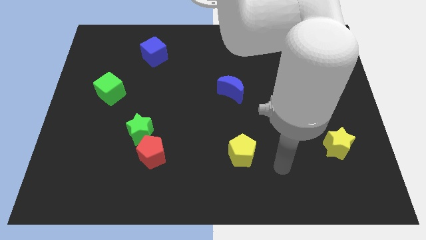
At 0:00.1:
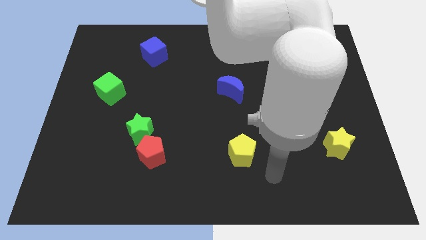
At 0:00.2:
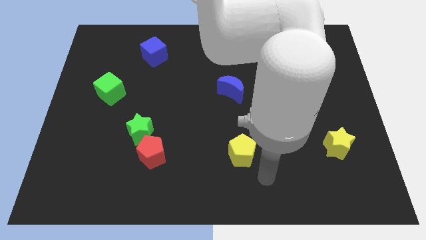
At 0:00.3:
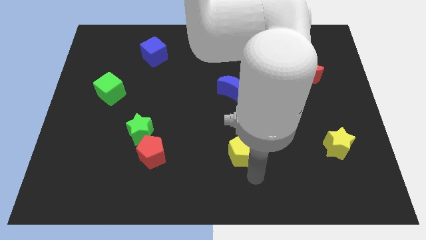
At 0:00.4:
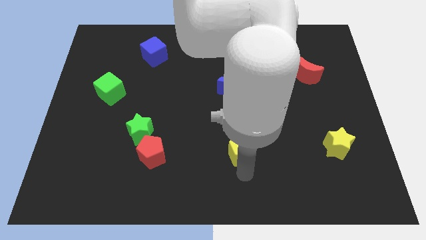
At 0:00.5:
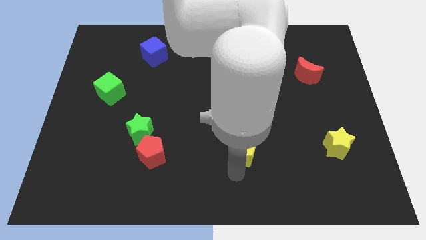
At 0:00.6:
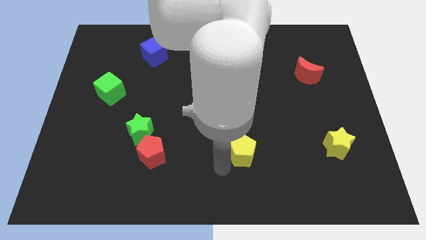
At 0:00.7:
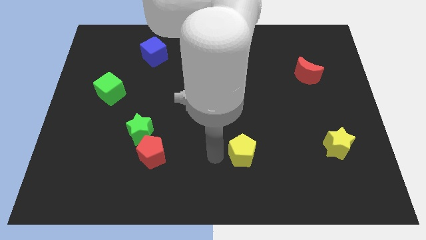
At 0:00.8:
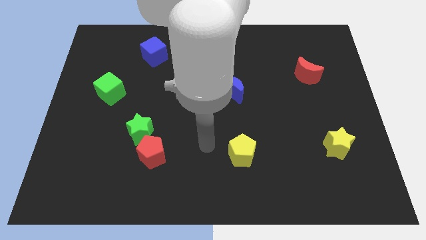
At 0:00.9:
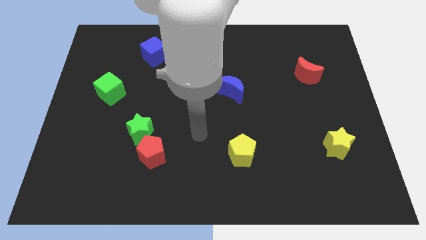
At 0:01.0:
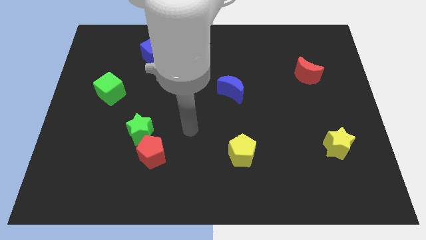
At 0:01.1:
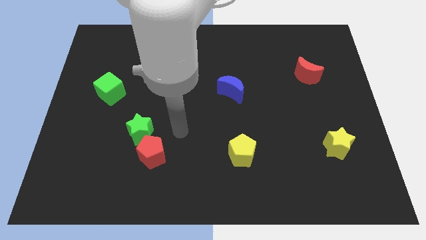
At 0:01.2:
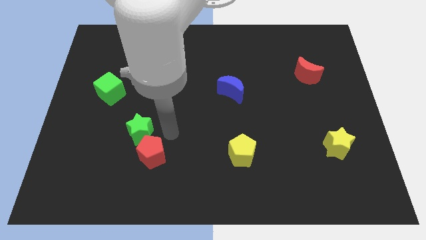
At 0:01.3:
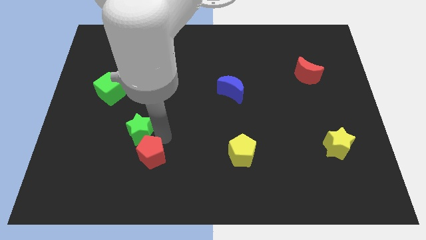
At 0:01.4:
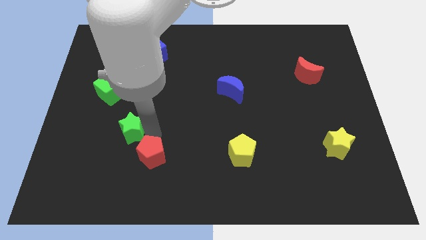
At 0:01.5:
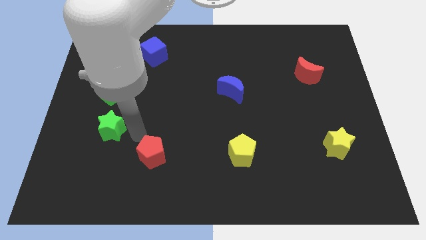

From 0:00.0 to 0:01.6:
separate the red pentagon from the green star

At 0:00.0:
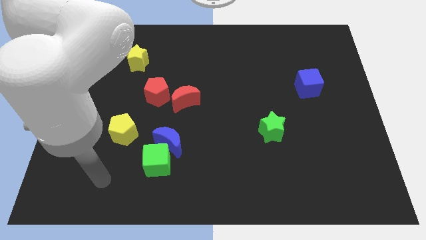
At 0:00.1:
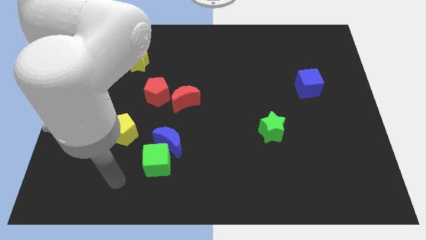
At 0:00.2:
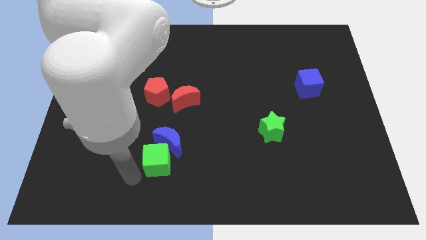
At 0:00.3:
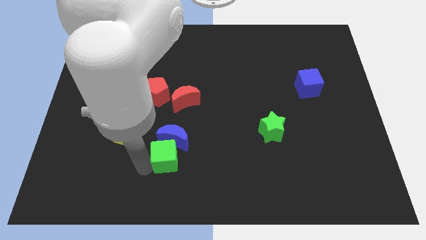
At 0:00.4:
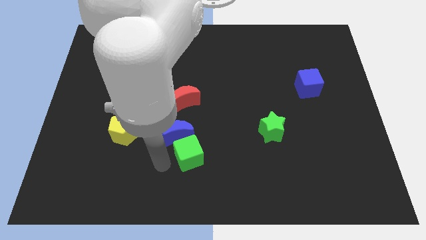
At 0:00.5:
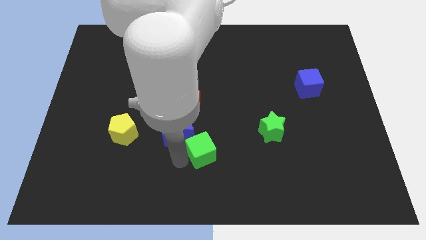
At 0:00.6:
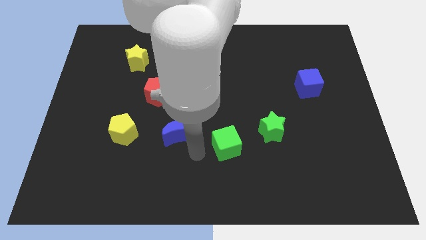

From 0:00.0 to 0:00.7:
pull the blue moon apart from the green cube

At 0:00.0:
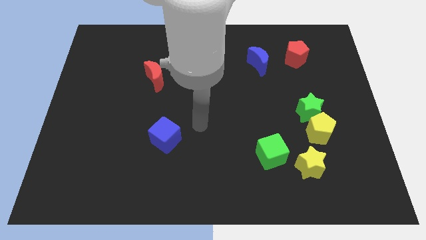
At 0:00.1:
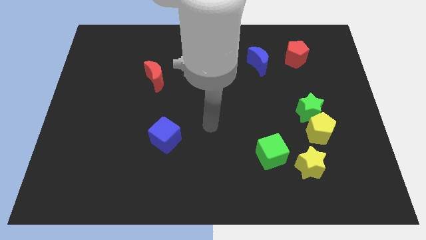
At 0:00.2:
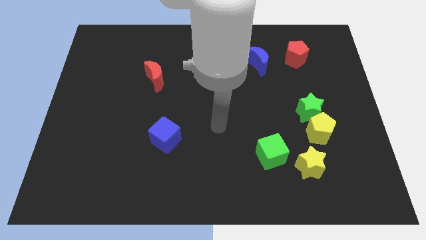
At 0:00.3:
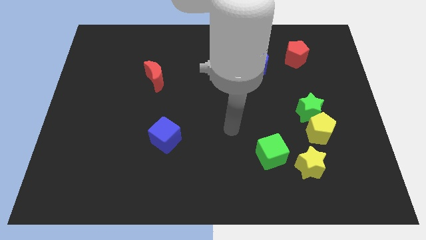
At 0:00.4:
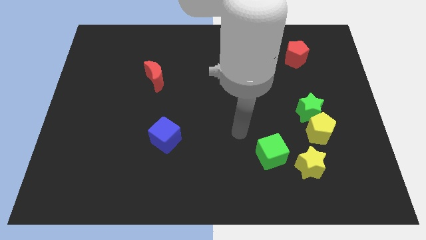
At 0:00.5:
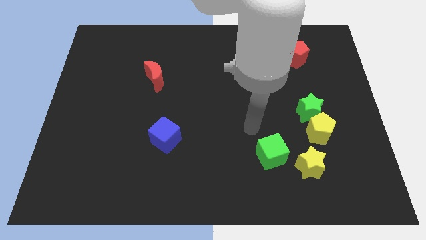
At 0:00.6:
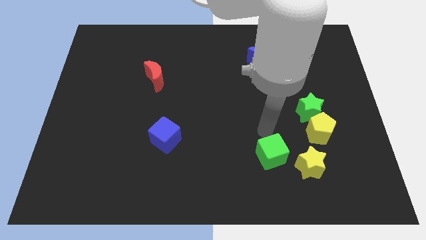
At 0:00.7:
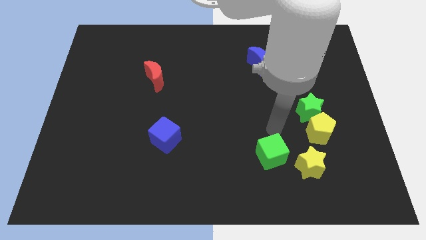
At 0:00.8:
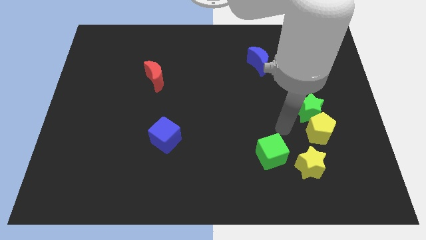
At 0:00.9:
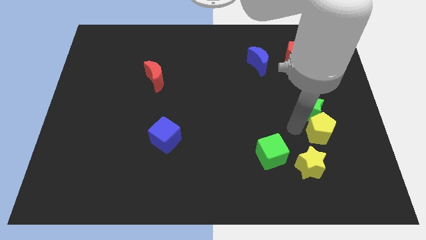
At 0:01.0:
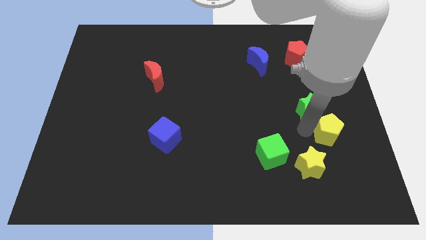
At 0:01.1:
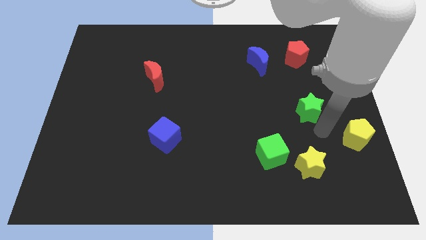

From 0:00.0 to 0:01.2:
move the green star away from the yellow pentagon

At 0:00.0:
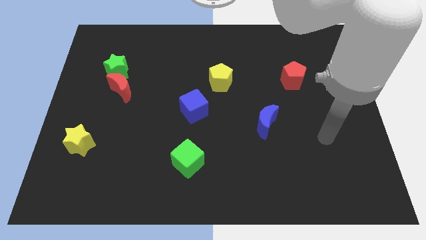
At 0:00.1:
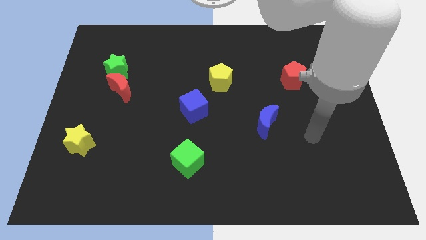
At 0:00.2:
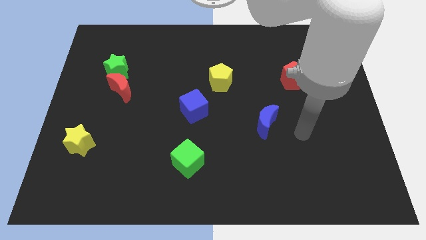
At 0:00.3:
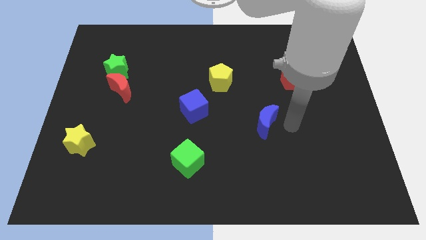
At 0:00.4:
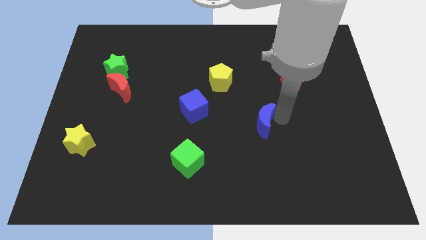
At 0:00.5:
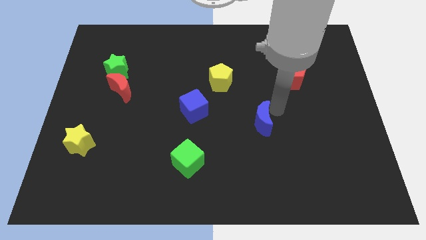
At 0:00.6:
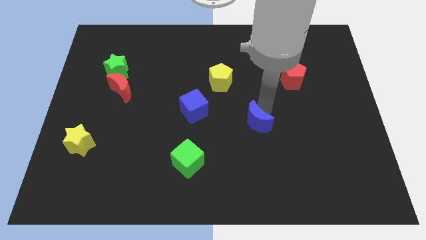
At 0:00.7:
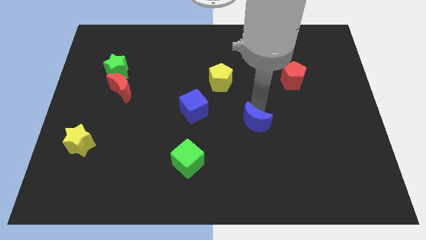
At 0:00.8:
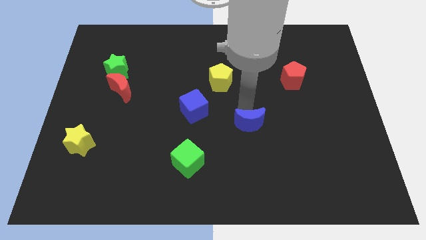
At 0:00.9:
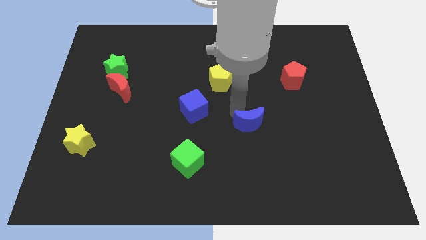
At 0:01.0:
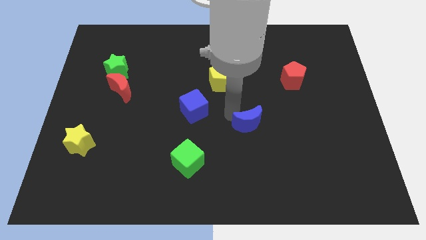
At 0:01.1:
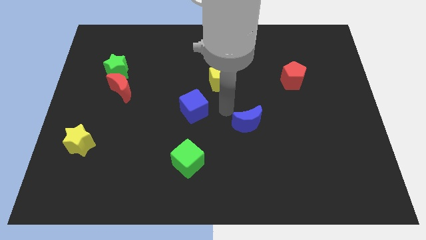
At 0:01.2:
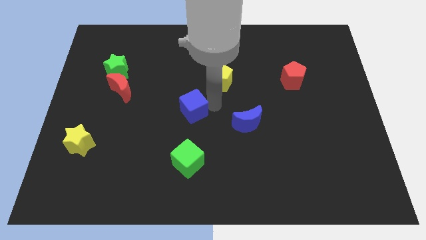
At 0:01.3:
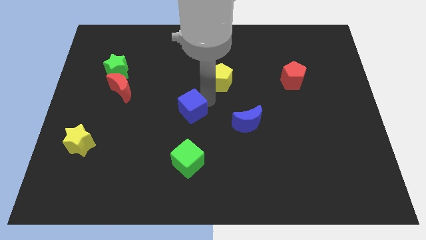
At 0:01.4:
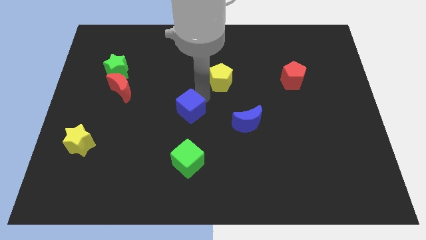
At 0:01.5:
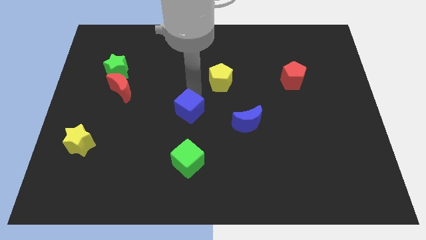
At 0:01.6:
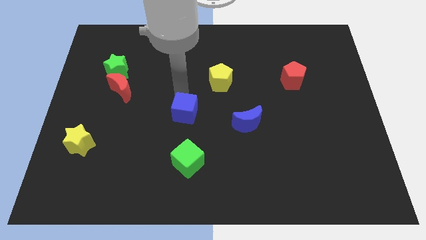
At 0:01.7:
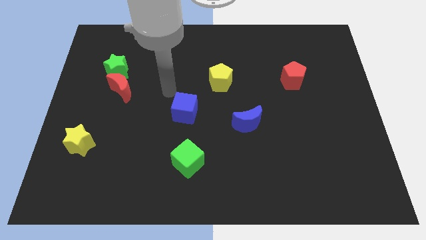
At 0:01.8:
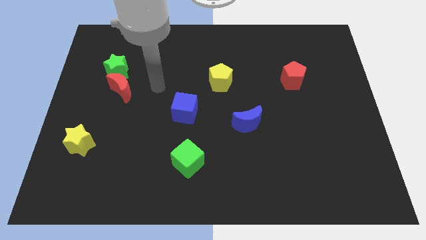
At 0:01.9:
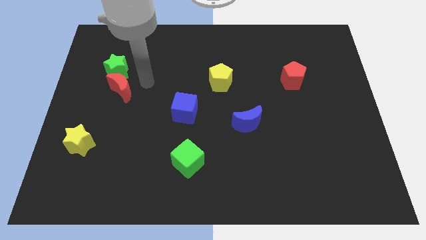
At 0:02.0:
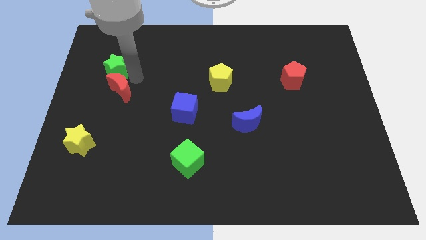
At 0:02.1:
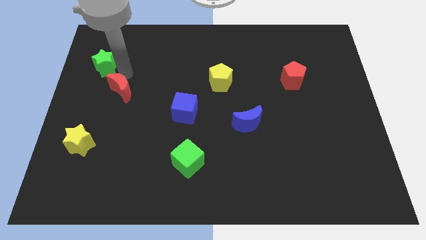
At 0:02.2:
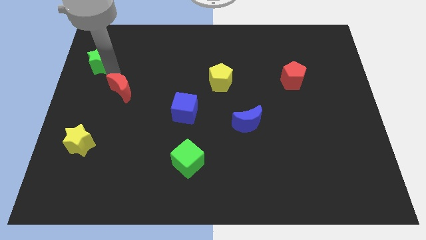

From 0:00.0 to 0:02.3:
move the red moon away from the green star

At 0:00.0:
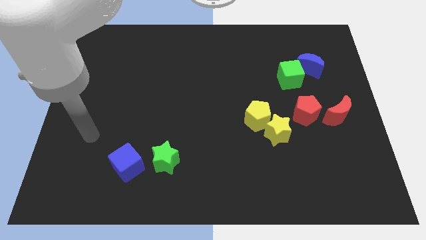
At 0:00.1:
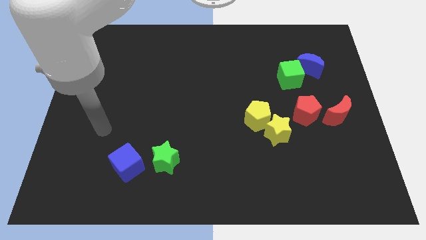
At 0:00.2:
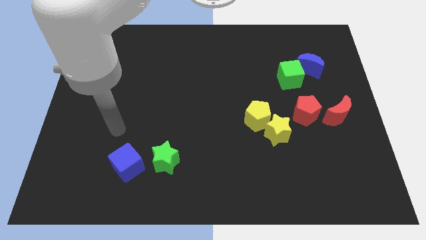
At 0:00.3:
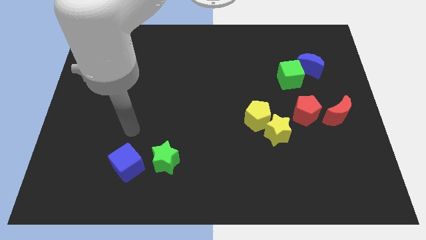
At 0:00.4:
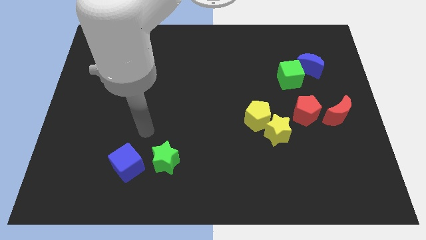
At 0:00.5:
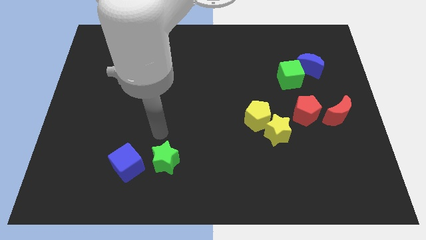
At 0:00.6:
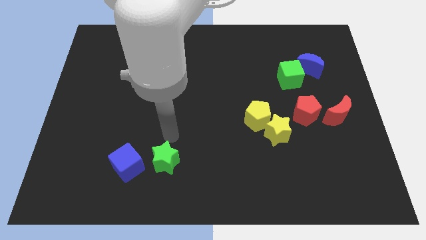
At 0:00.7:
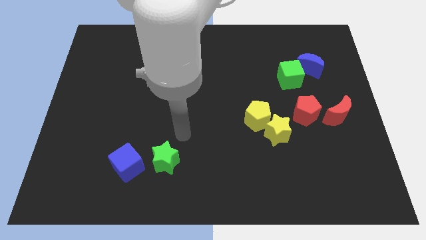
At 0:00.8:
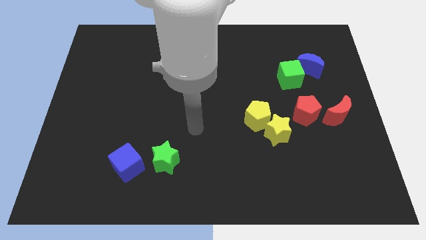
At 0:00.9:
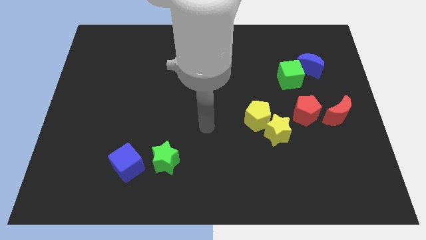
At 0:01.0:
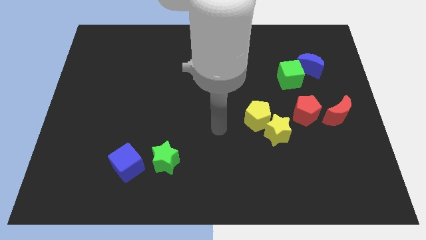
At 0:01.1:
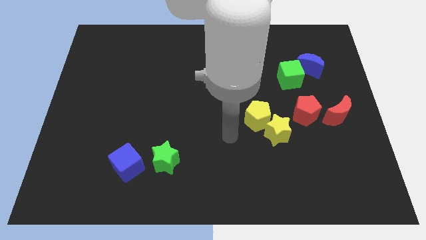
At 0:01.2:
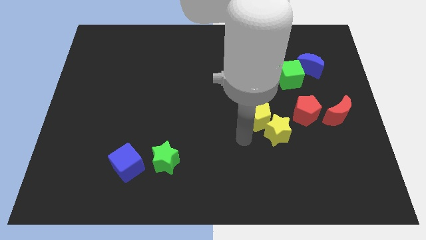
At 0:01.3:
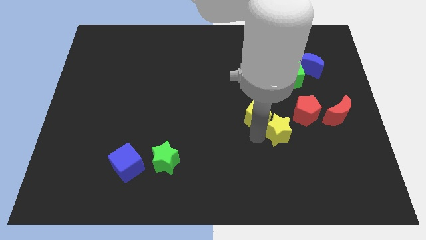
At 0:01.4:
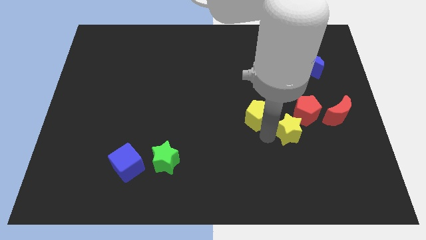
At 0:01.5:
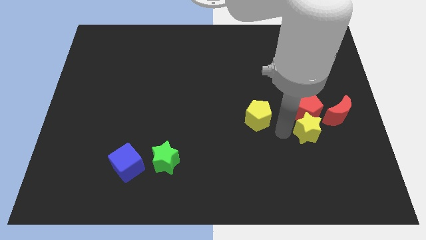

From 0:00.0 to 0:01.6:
separate the yellow pentagon from the yellow star

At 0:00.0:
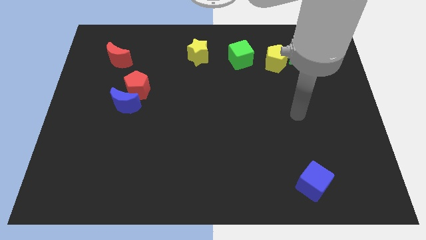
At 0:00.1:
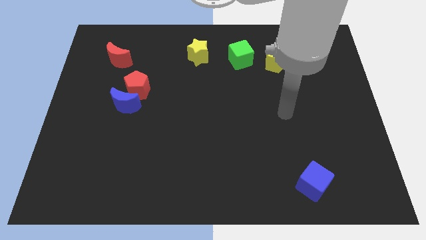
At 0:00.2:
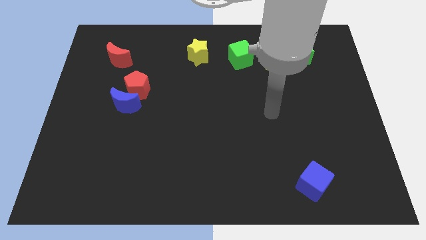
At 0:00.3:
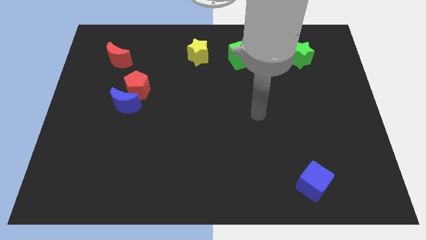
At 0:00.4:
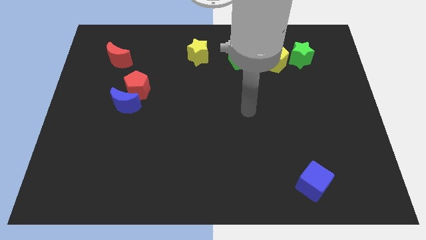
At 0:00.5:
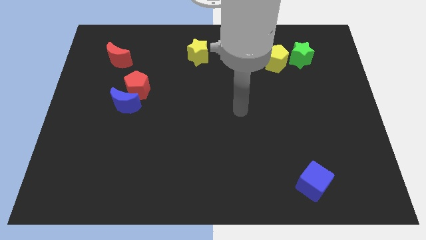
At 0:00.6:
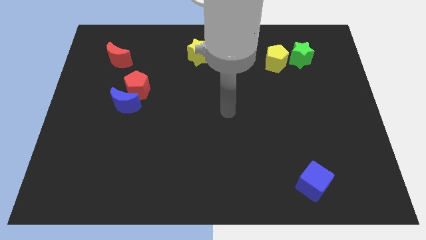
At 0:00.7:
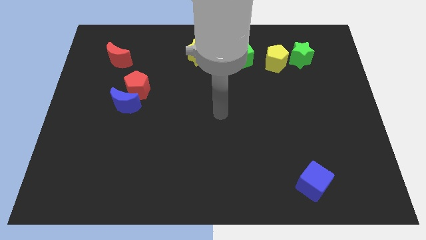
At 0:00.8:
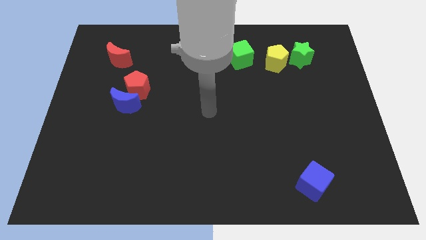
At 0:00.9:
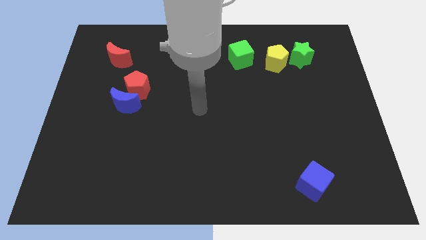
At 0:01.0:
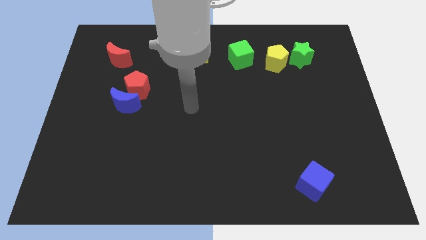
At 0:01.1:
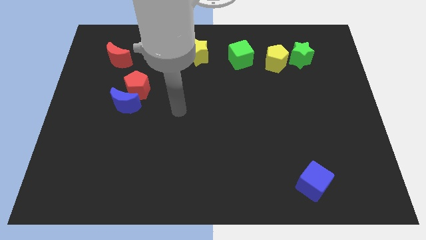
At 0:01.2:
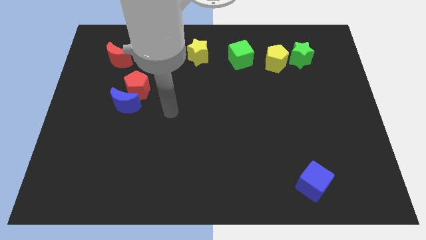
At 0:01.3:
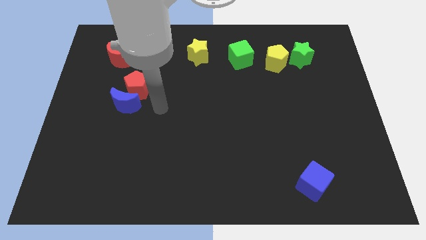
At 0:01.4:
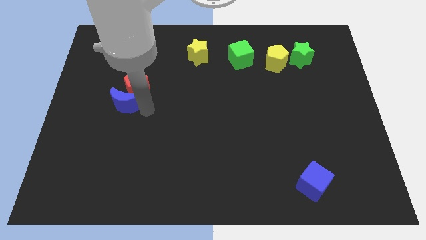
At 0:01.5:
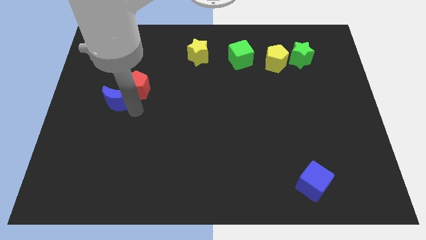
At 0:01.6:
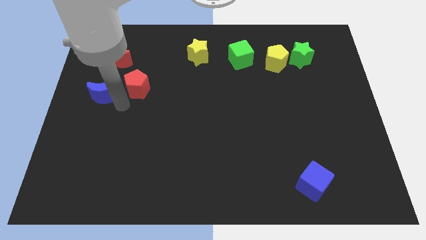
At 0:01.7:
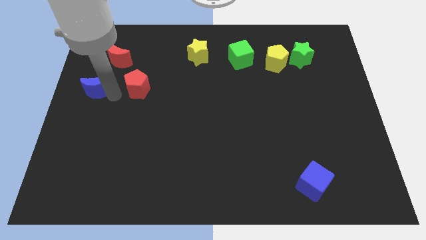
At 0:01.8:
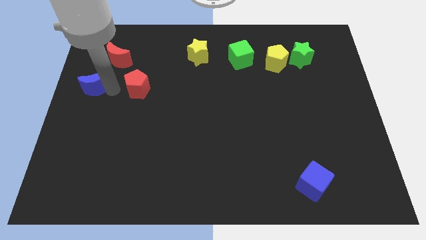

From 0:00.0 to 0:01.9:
separate the red pentagon from the blue moon
